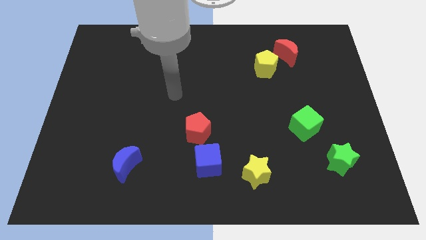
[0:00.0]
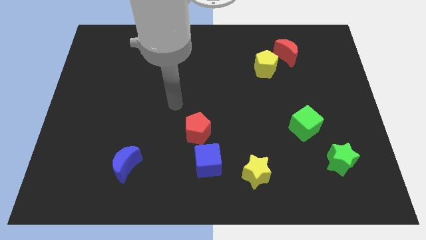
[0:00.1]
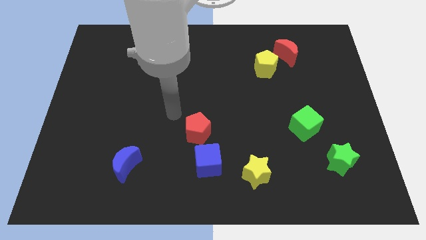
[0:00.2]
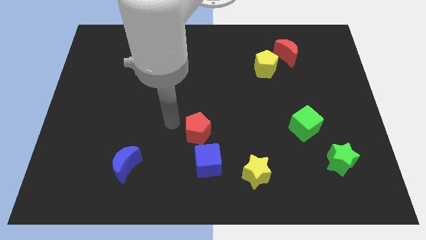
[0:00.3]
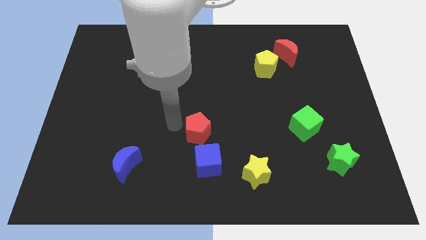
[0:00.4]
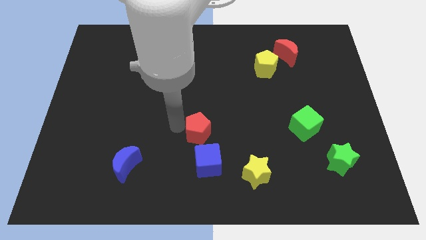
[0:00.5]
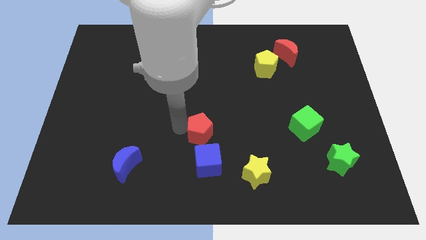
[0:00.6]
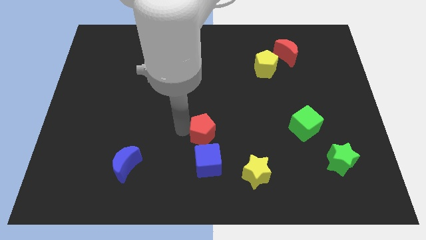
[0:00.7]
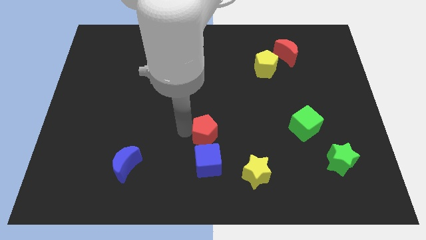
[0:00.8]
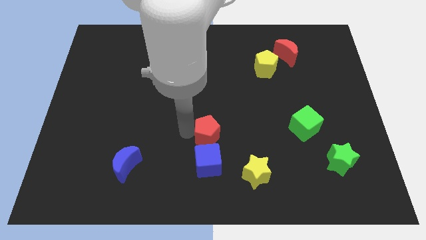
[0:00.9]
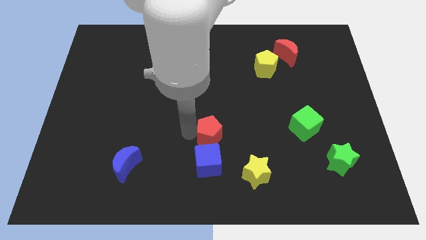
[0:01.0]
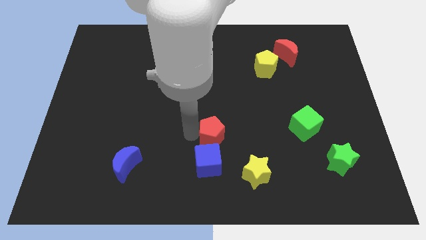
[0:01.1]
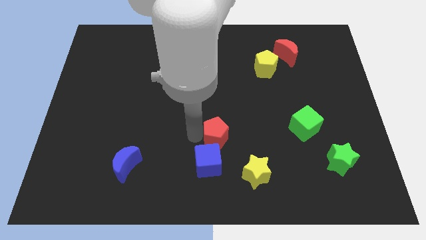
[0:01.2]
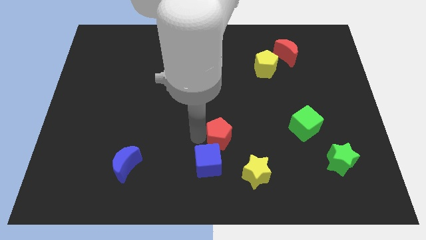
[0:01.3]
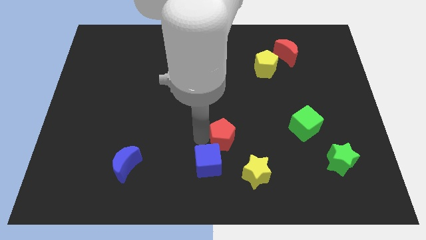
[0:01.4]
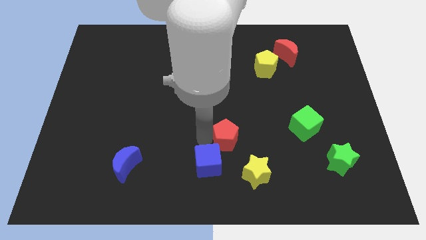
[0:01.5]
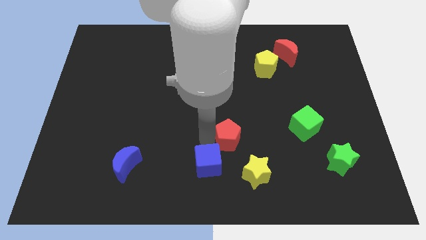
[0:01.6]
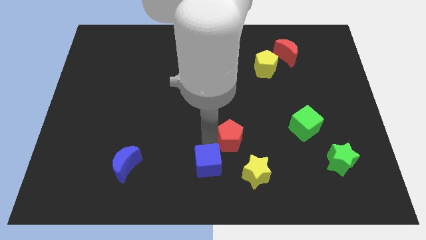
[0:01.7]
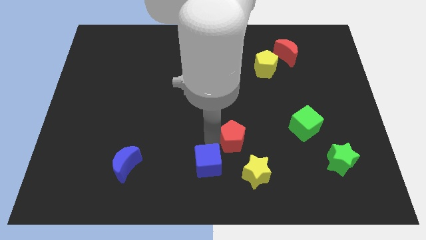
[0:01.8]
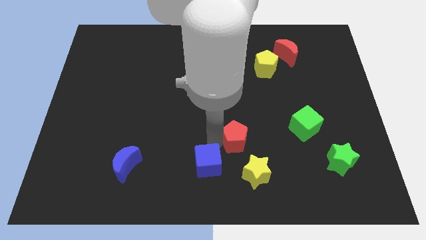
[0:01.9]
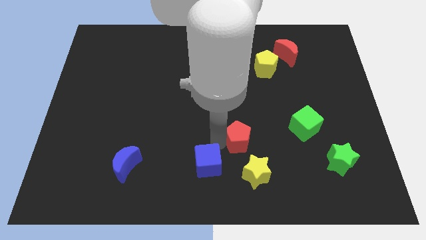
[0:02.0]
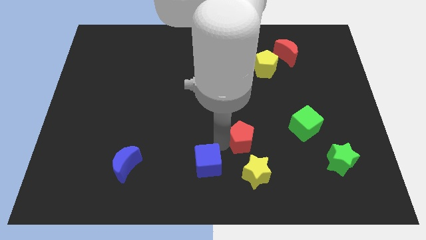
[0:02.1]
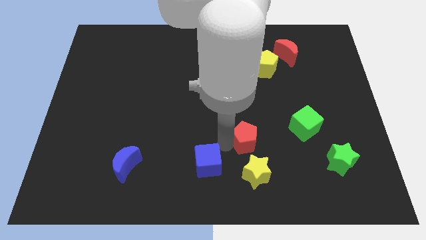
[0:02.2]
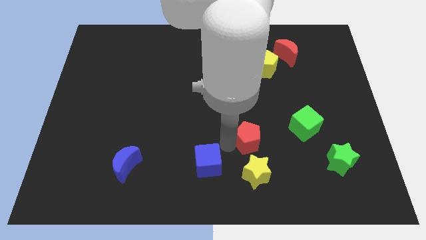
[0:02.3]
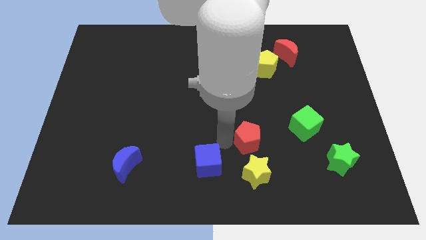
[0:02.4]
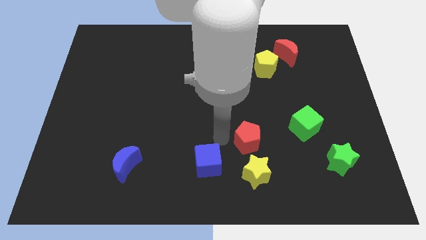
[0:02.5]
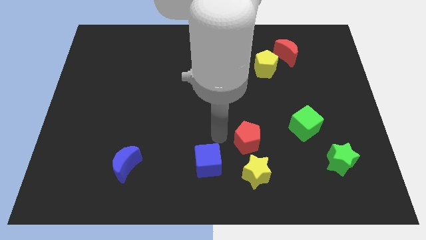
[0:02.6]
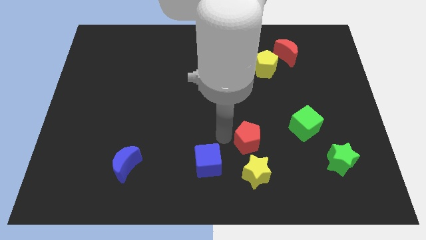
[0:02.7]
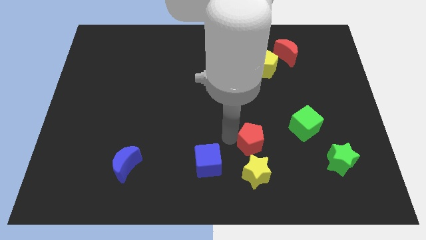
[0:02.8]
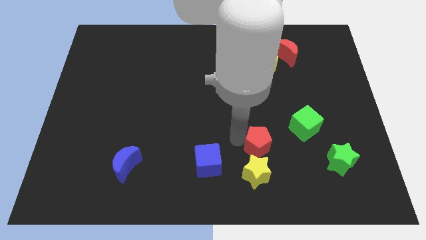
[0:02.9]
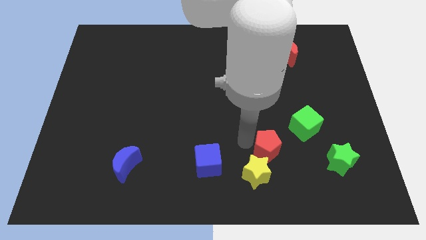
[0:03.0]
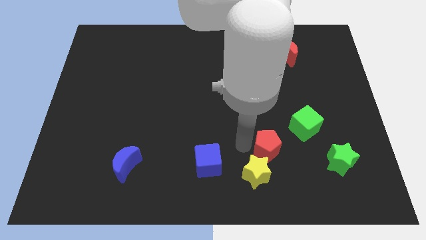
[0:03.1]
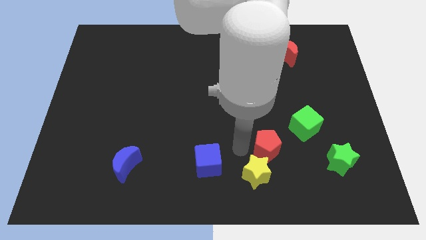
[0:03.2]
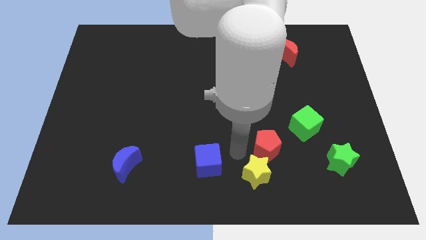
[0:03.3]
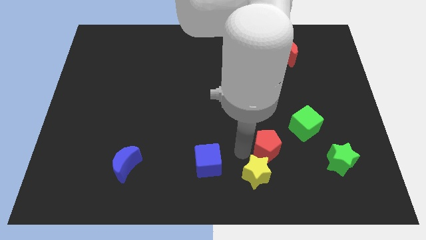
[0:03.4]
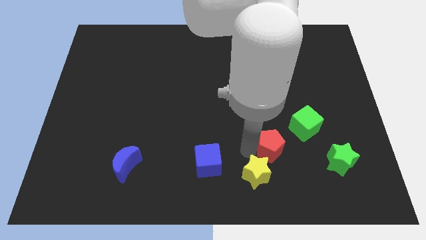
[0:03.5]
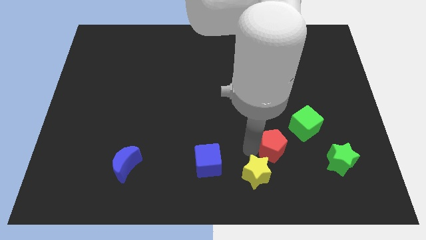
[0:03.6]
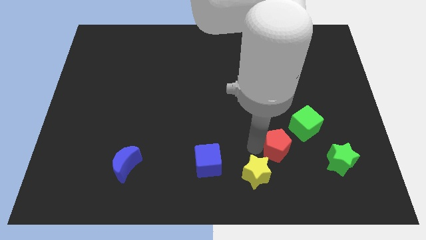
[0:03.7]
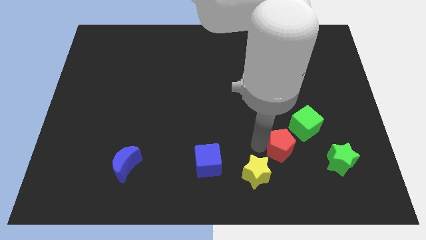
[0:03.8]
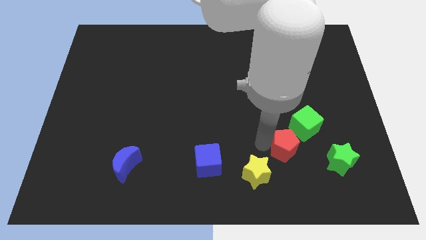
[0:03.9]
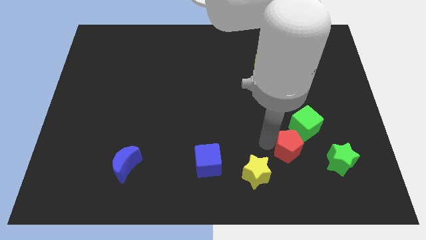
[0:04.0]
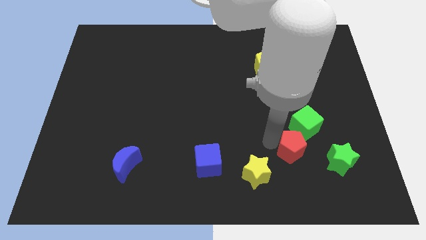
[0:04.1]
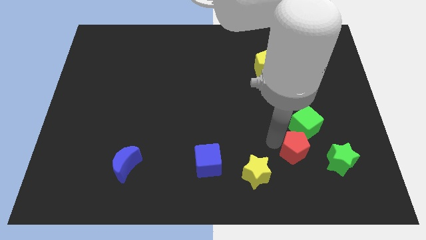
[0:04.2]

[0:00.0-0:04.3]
push the red pentagon right

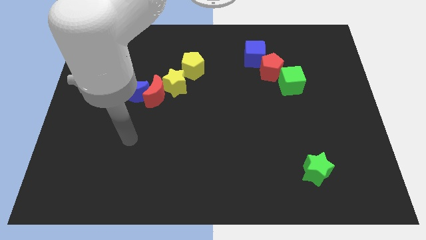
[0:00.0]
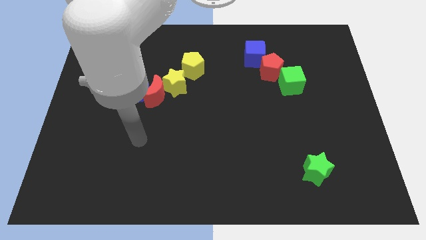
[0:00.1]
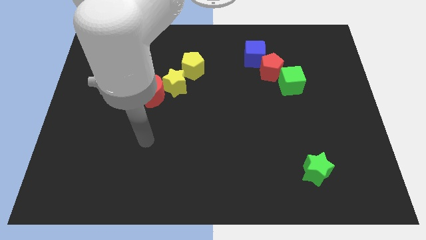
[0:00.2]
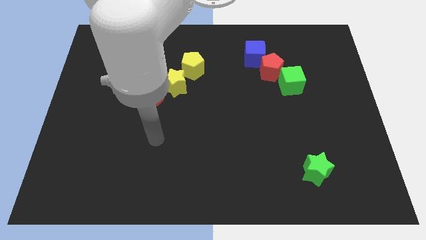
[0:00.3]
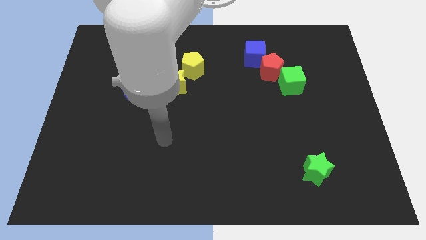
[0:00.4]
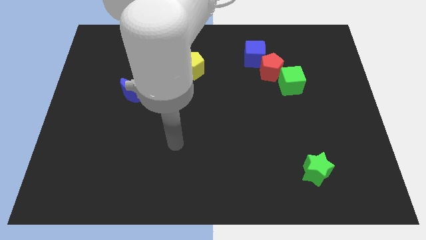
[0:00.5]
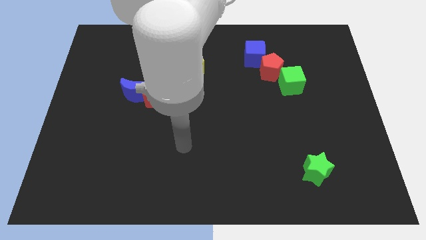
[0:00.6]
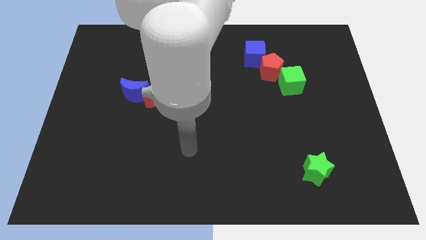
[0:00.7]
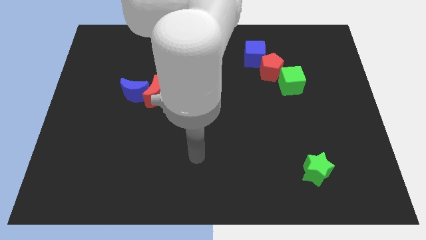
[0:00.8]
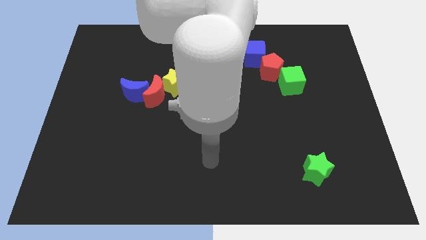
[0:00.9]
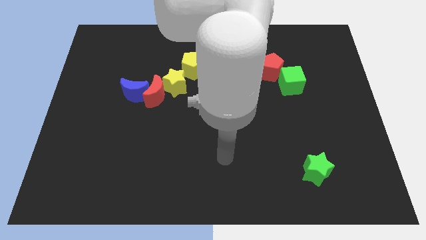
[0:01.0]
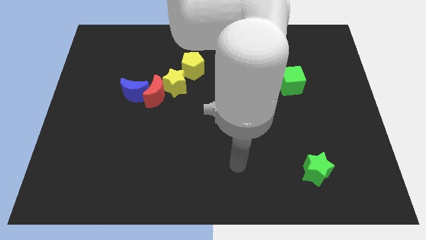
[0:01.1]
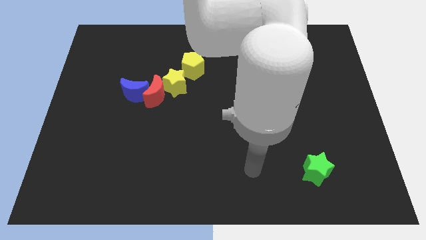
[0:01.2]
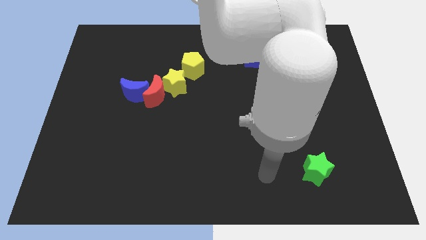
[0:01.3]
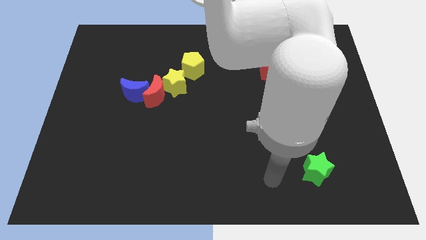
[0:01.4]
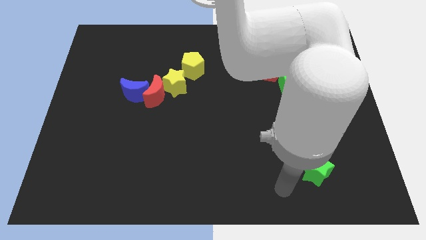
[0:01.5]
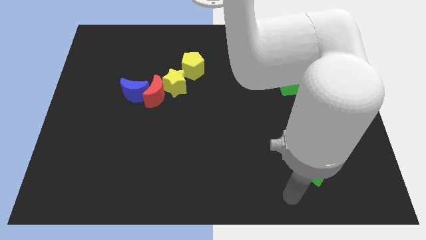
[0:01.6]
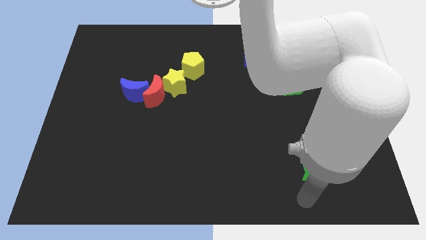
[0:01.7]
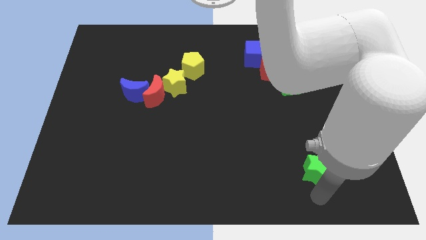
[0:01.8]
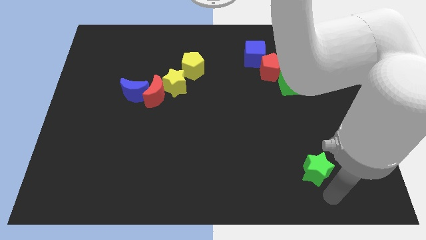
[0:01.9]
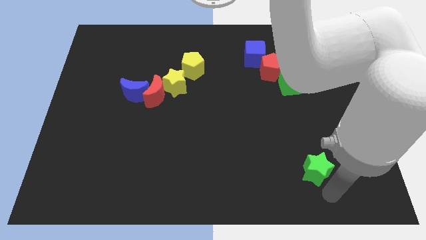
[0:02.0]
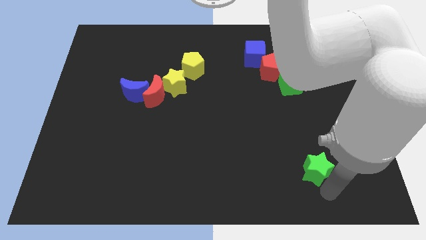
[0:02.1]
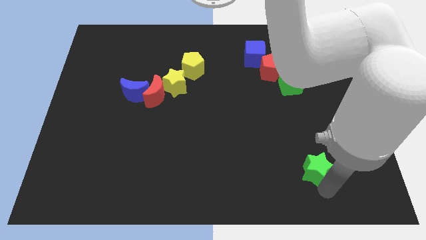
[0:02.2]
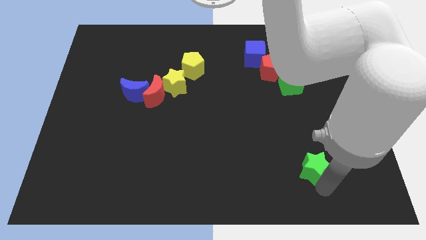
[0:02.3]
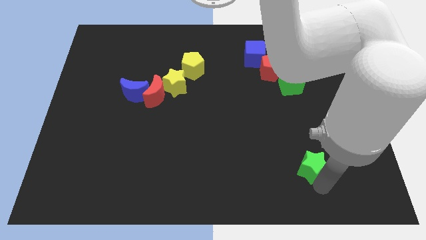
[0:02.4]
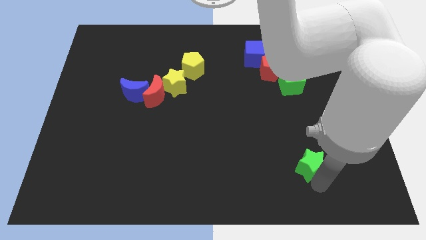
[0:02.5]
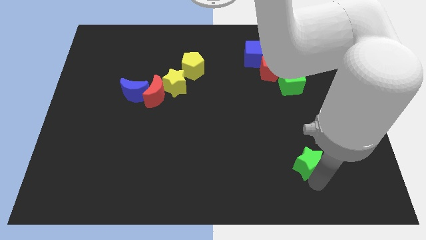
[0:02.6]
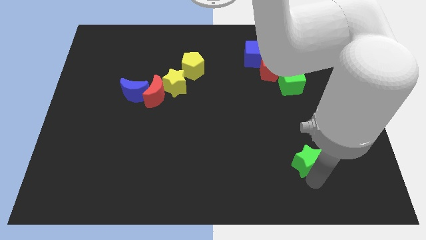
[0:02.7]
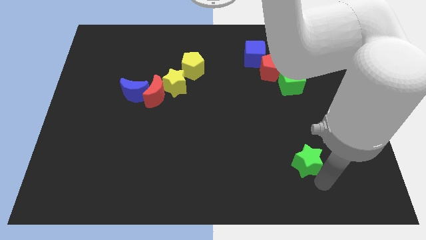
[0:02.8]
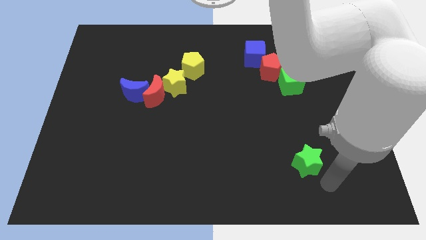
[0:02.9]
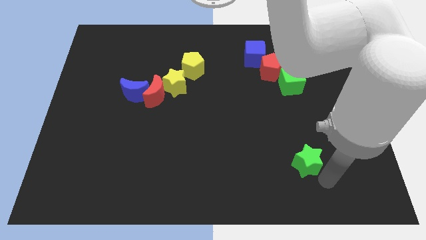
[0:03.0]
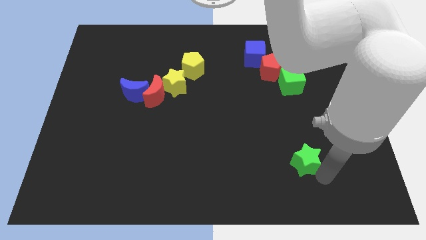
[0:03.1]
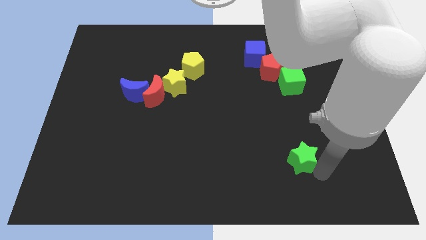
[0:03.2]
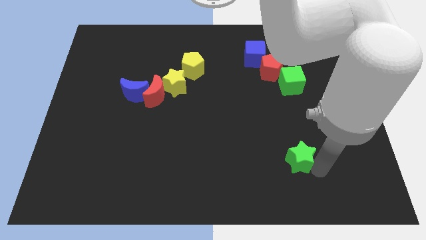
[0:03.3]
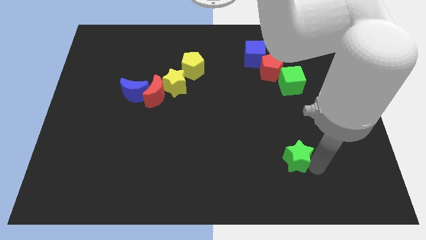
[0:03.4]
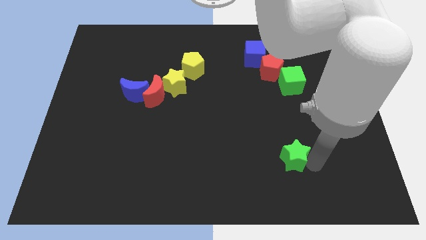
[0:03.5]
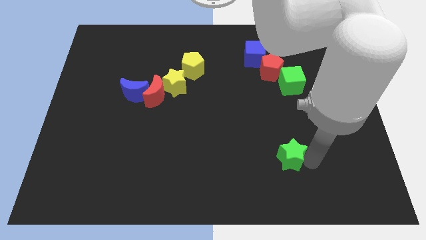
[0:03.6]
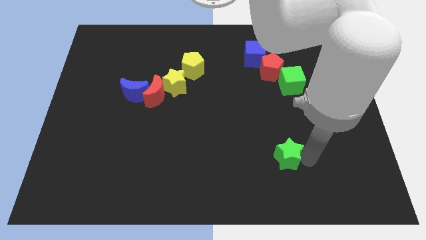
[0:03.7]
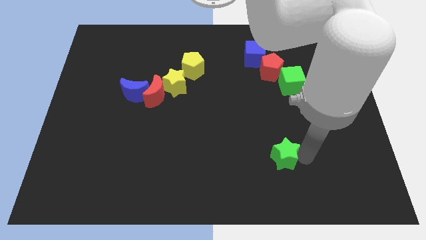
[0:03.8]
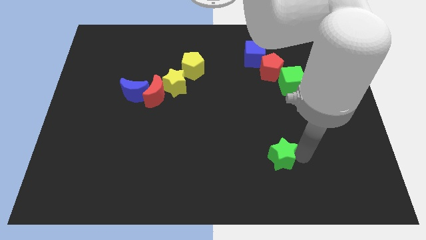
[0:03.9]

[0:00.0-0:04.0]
push the green star slightly diagonally up and left
